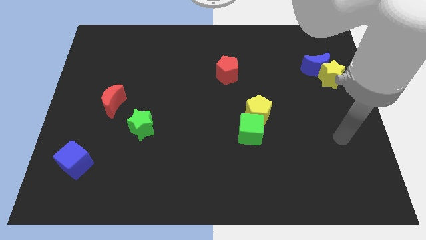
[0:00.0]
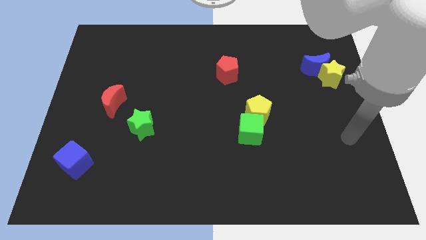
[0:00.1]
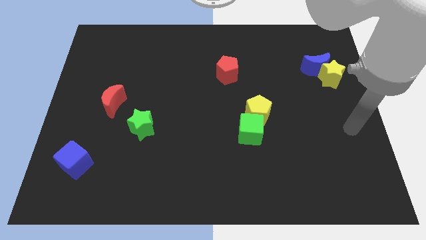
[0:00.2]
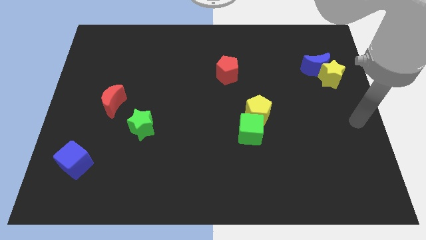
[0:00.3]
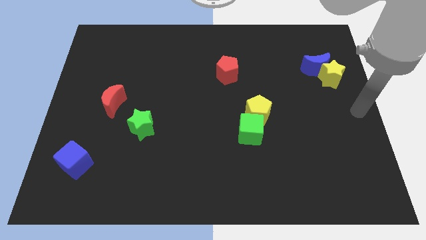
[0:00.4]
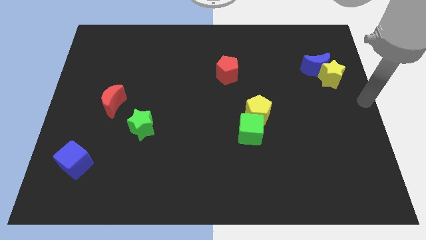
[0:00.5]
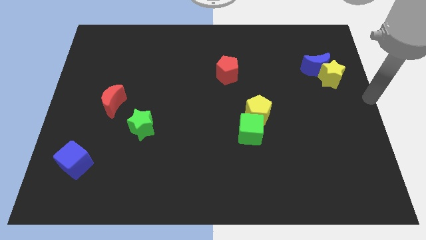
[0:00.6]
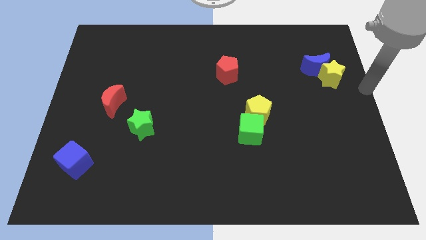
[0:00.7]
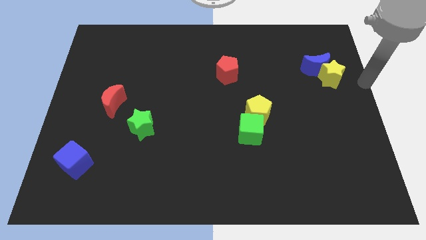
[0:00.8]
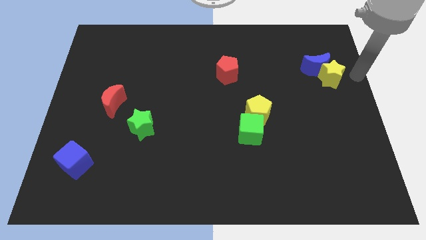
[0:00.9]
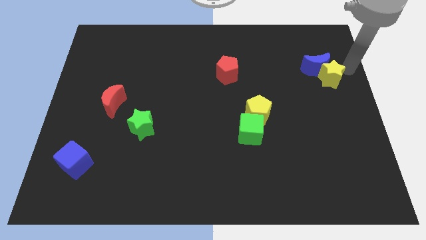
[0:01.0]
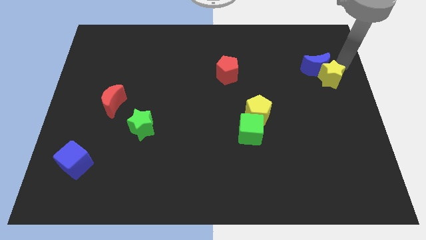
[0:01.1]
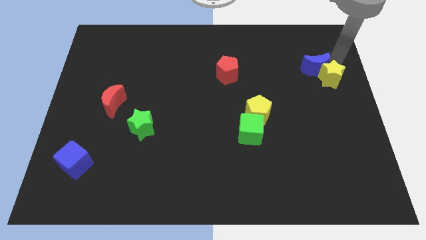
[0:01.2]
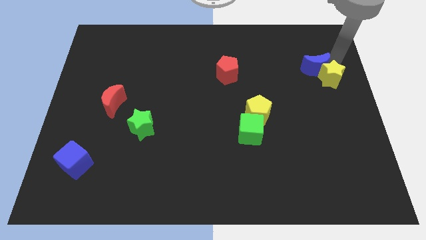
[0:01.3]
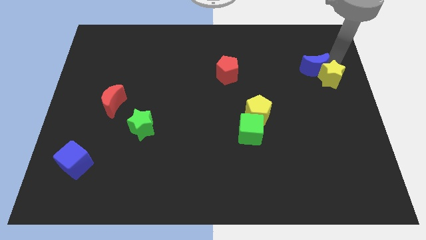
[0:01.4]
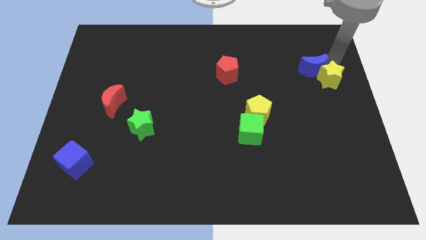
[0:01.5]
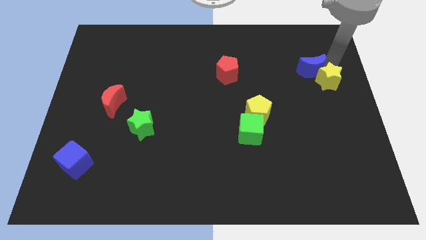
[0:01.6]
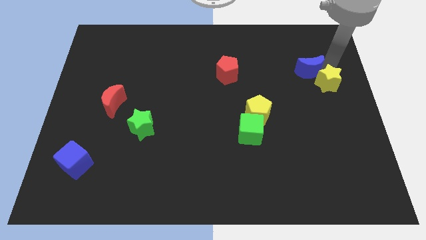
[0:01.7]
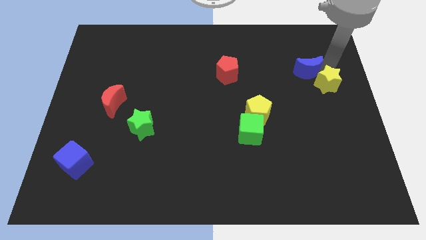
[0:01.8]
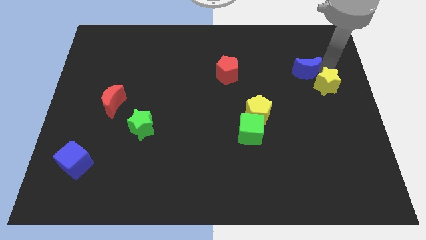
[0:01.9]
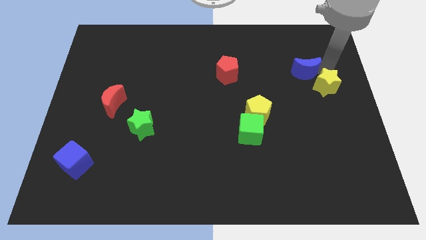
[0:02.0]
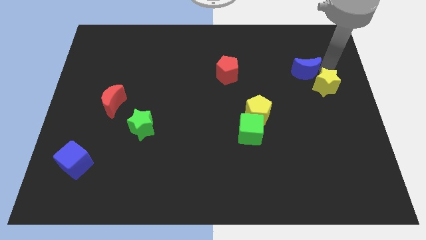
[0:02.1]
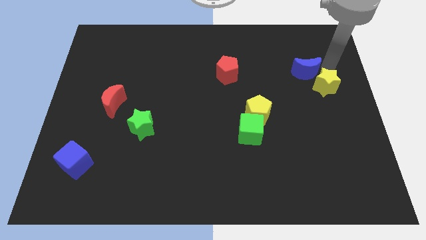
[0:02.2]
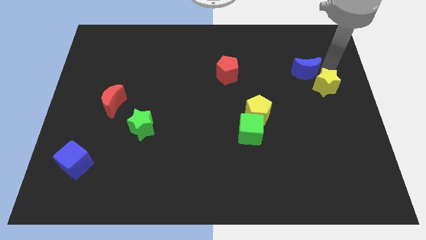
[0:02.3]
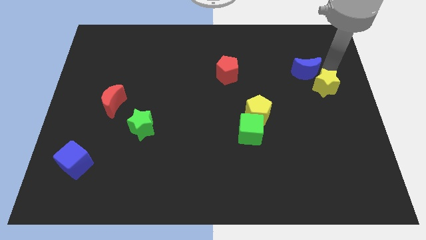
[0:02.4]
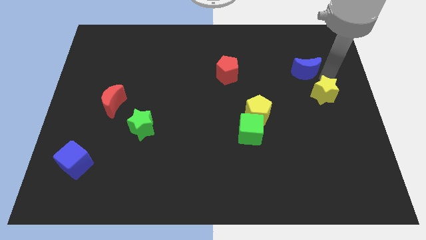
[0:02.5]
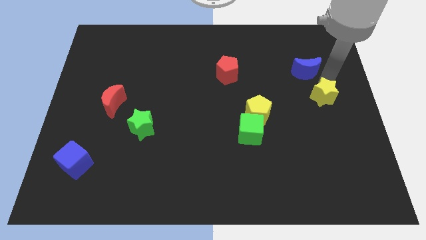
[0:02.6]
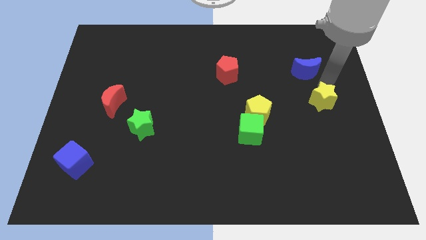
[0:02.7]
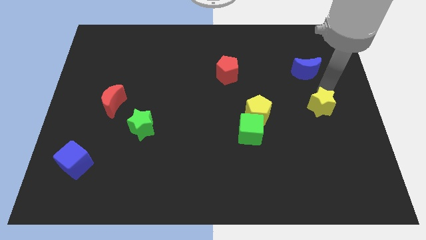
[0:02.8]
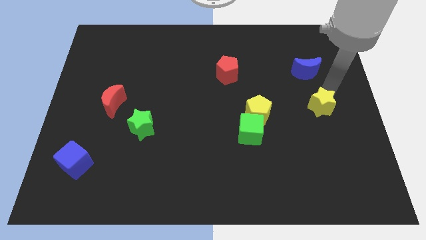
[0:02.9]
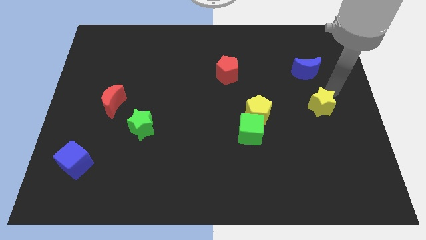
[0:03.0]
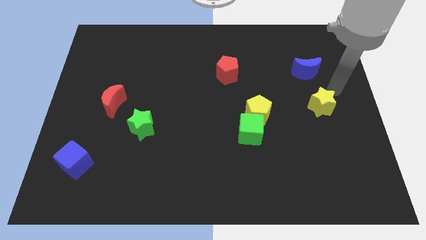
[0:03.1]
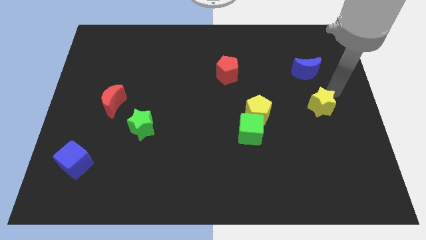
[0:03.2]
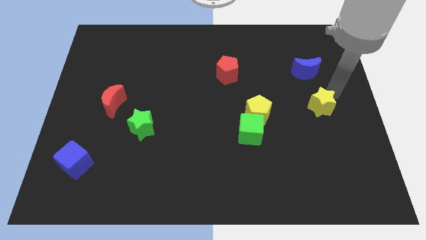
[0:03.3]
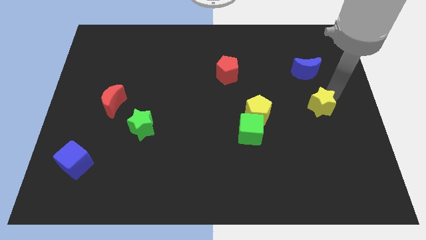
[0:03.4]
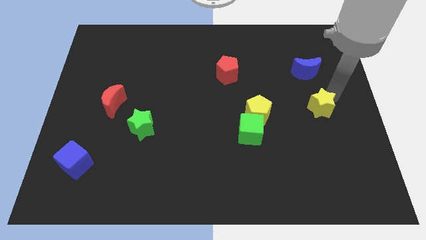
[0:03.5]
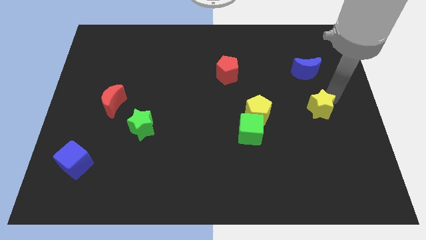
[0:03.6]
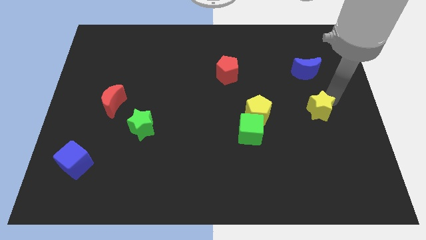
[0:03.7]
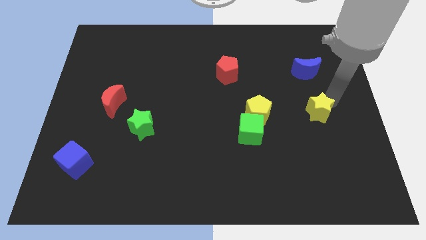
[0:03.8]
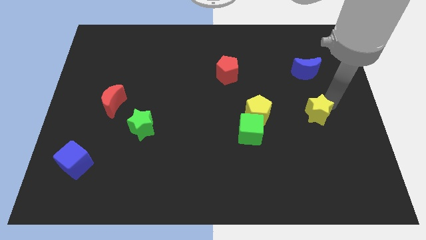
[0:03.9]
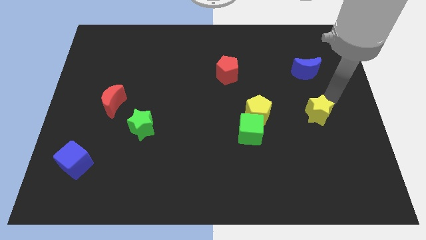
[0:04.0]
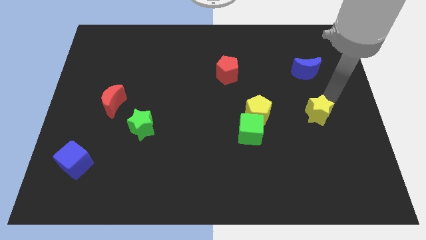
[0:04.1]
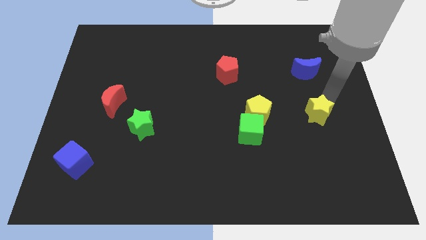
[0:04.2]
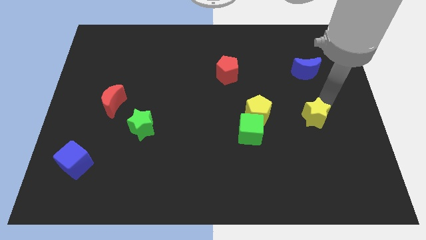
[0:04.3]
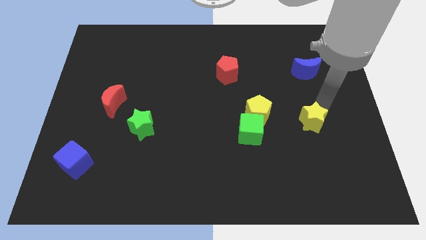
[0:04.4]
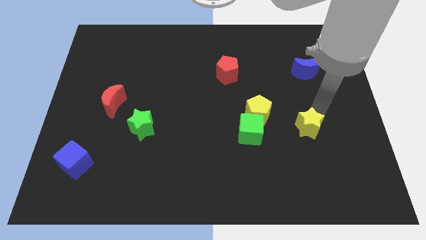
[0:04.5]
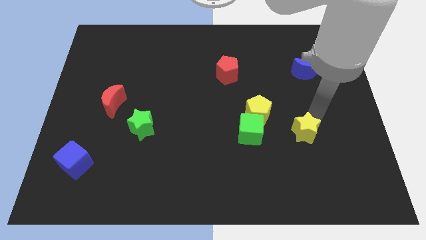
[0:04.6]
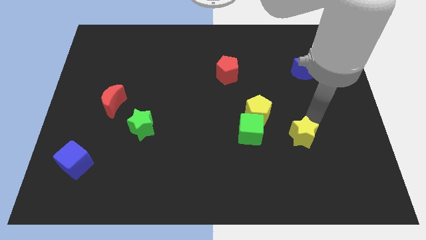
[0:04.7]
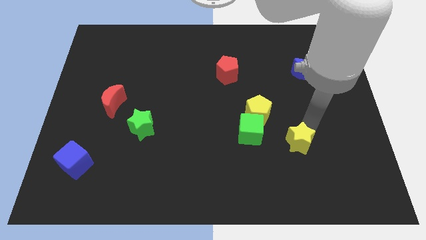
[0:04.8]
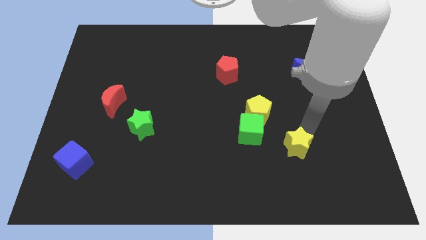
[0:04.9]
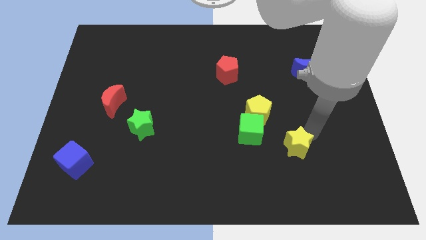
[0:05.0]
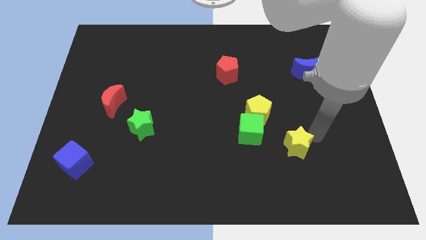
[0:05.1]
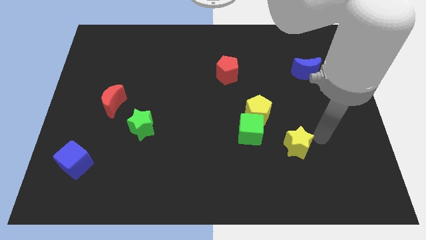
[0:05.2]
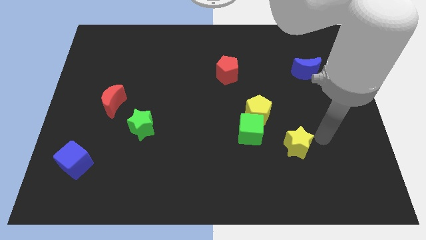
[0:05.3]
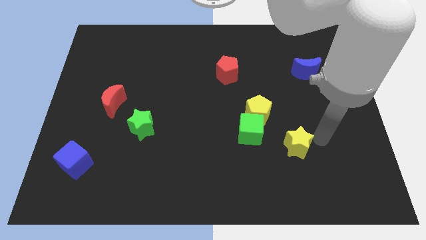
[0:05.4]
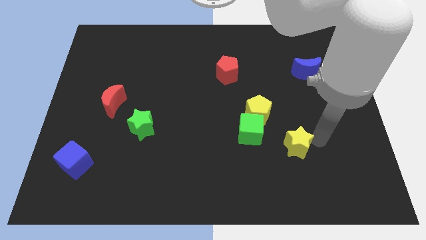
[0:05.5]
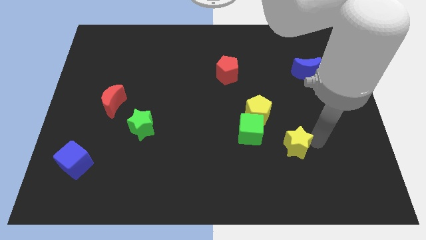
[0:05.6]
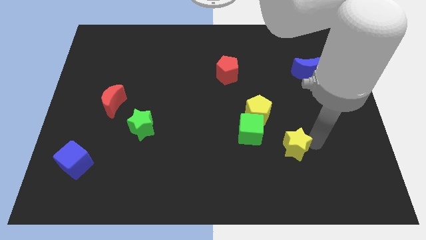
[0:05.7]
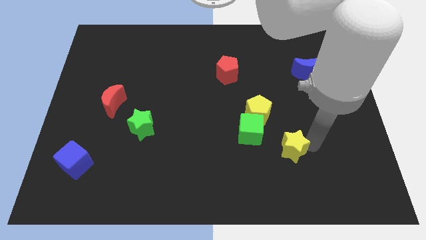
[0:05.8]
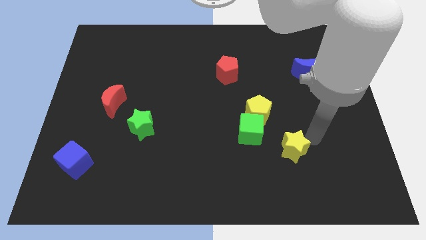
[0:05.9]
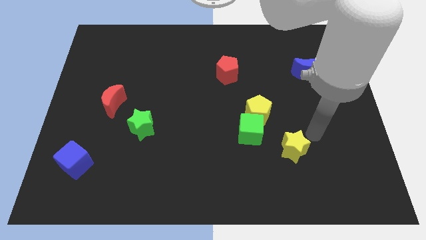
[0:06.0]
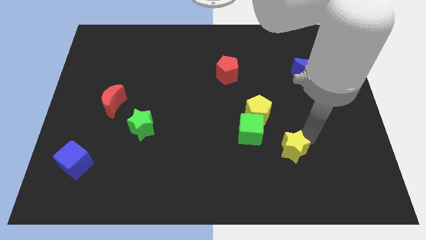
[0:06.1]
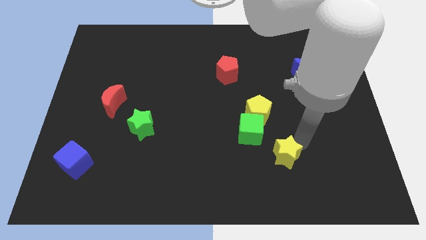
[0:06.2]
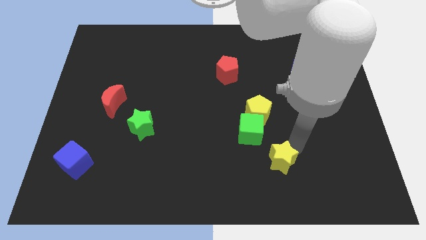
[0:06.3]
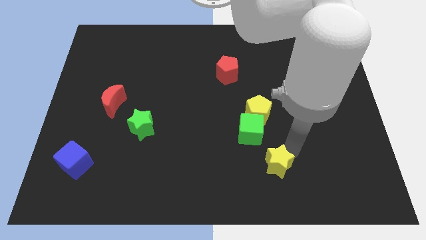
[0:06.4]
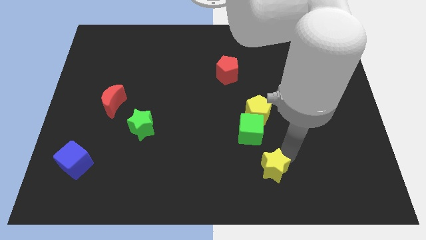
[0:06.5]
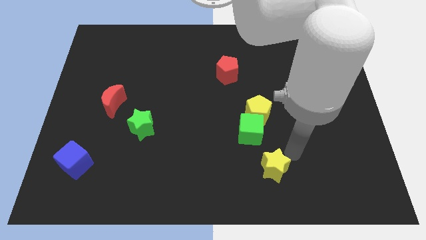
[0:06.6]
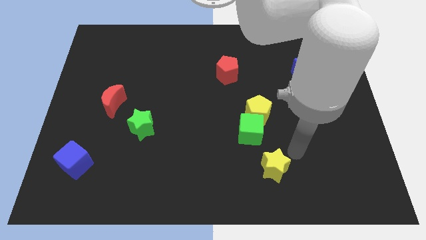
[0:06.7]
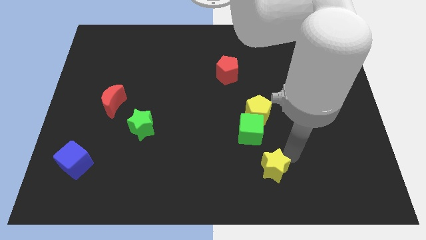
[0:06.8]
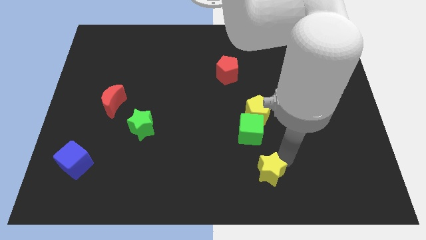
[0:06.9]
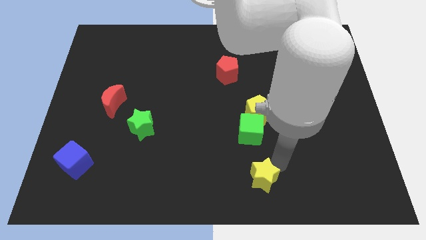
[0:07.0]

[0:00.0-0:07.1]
move the yellow star to the bottom side
